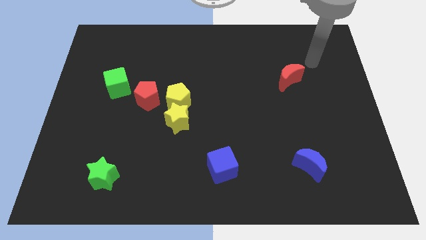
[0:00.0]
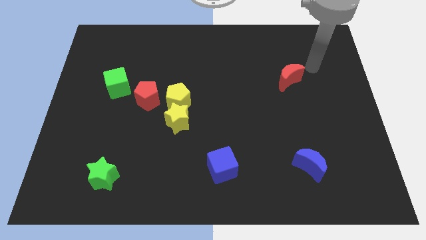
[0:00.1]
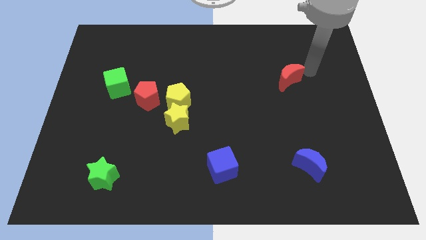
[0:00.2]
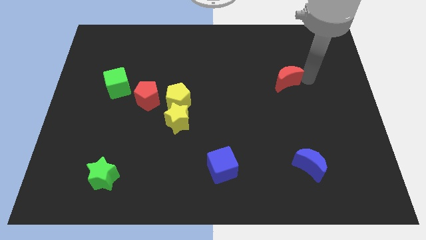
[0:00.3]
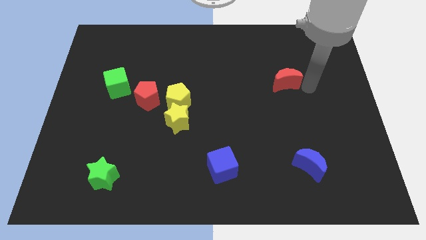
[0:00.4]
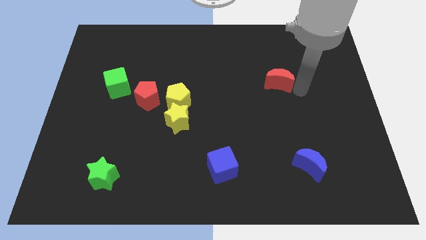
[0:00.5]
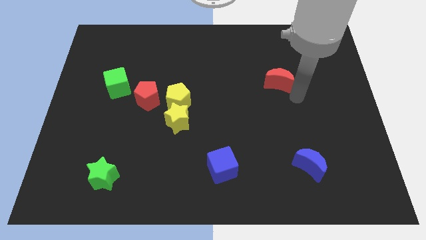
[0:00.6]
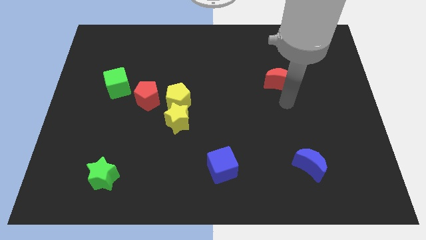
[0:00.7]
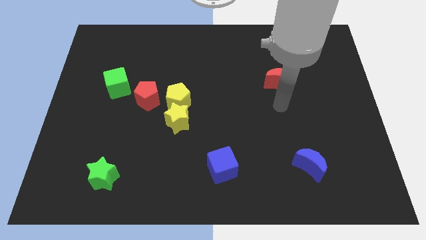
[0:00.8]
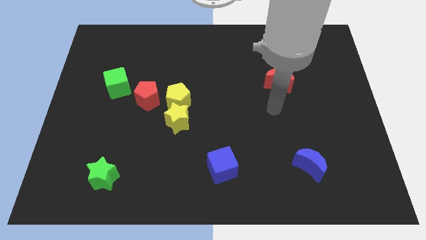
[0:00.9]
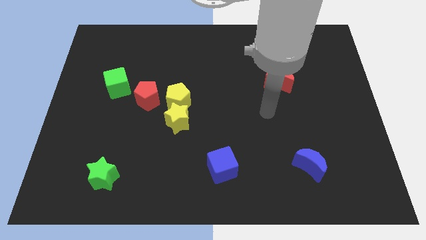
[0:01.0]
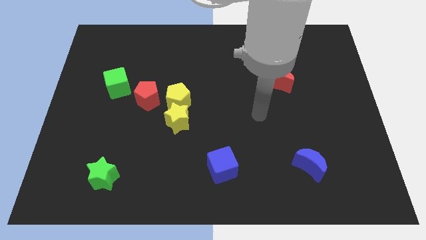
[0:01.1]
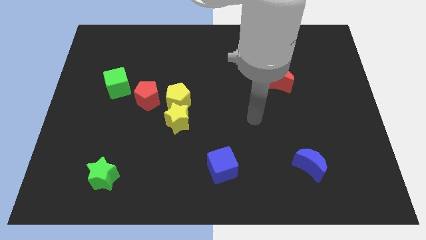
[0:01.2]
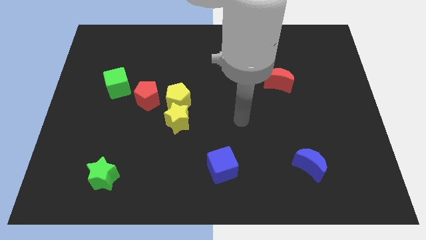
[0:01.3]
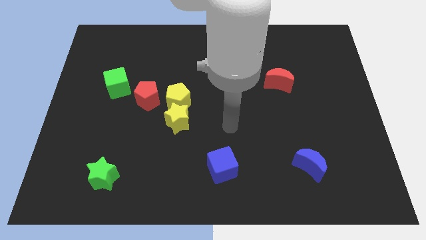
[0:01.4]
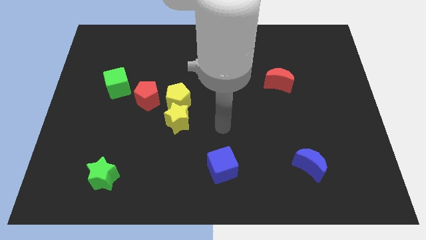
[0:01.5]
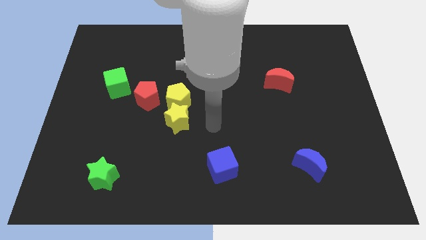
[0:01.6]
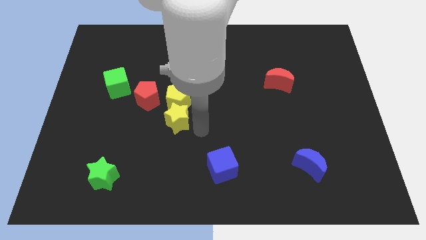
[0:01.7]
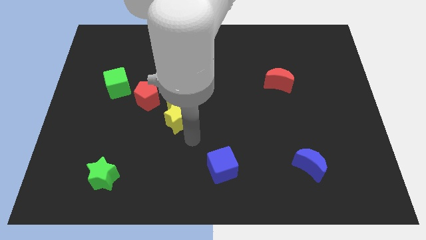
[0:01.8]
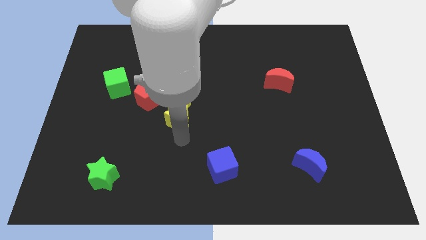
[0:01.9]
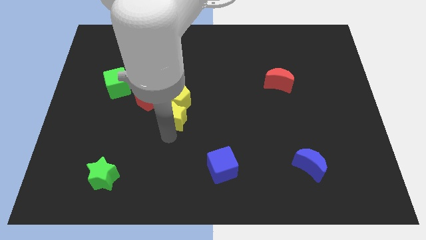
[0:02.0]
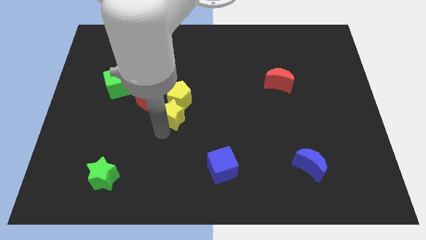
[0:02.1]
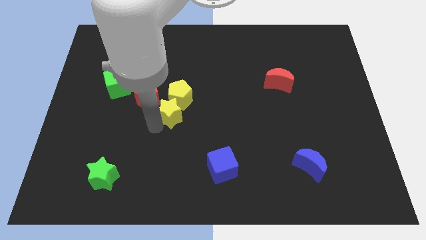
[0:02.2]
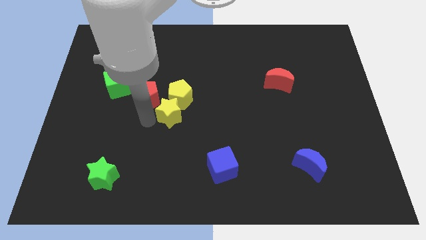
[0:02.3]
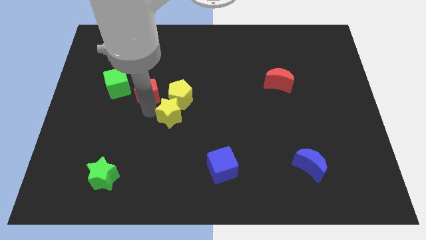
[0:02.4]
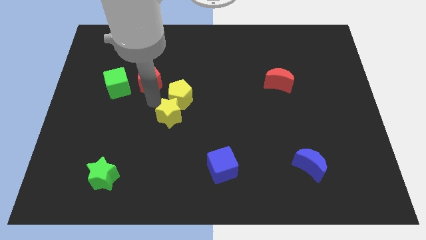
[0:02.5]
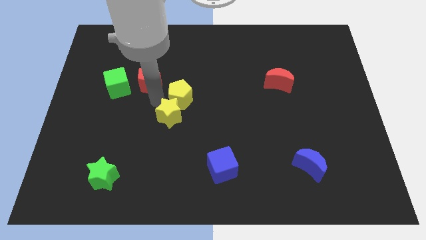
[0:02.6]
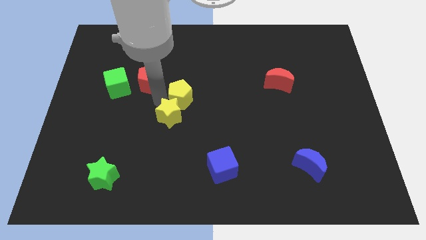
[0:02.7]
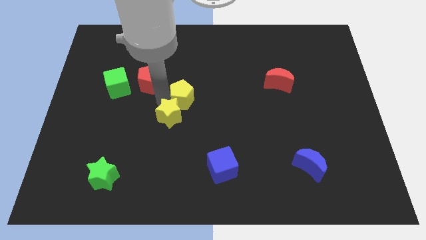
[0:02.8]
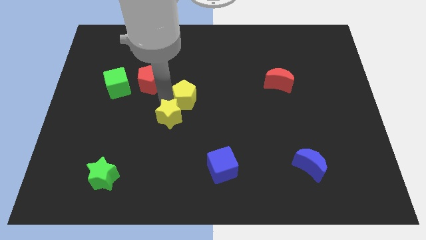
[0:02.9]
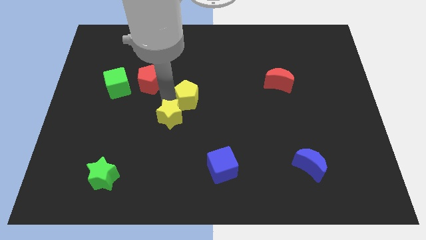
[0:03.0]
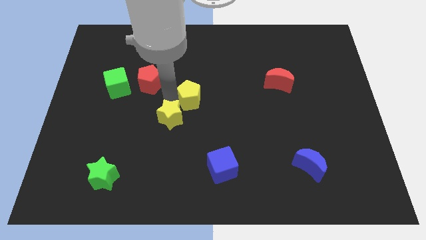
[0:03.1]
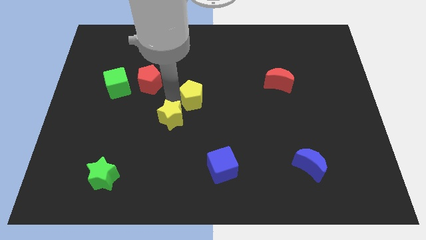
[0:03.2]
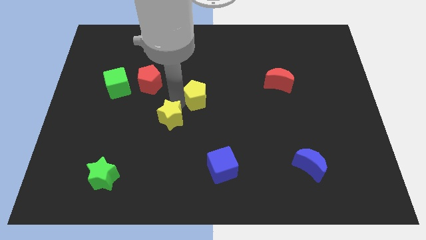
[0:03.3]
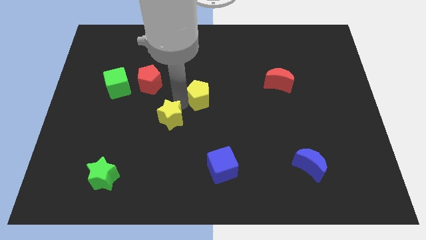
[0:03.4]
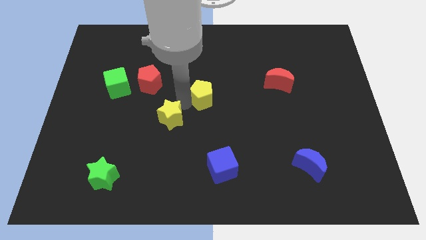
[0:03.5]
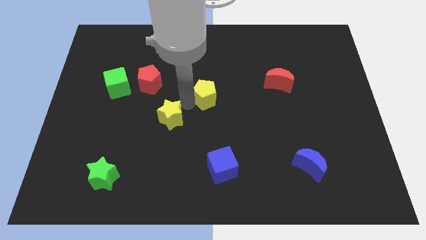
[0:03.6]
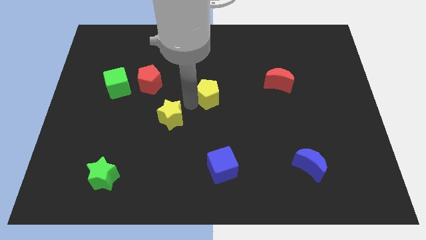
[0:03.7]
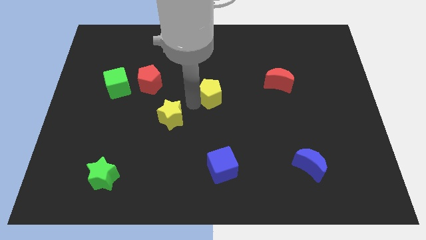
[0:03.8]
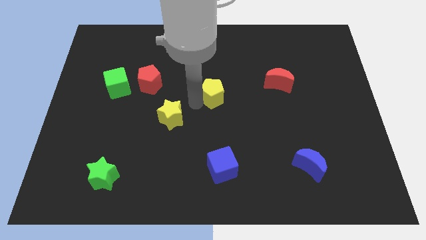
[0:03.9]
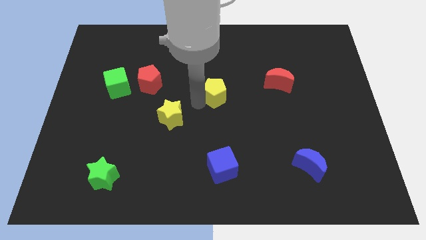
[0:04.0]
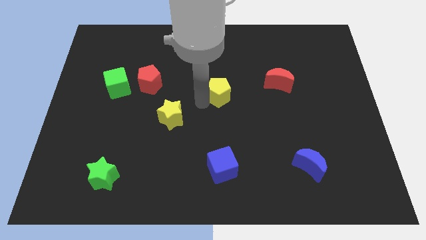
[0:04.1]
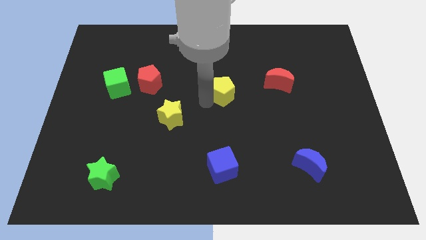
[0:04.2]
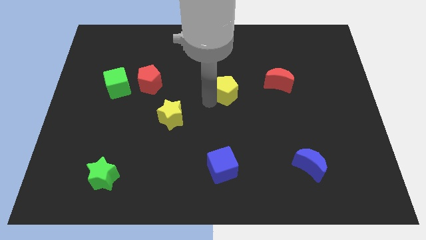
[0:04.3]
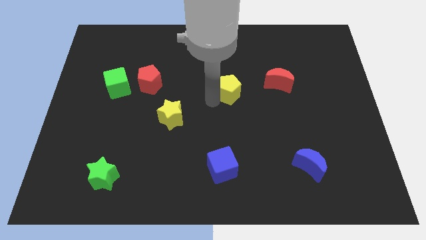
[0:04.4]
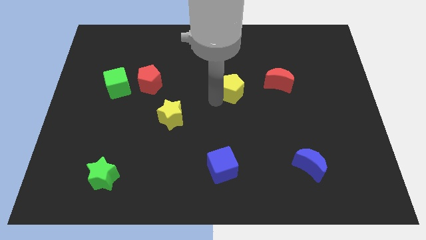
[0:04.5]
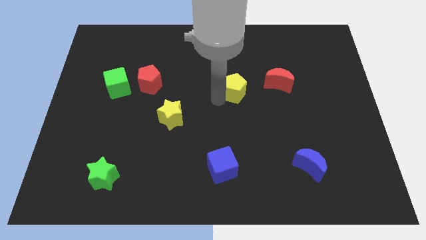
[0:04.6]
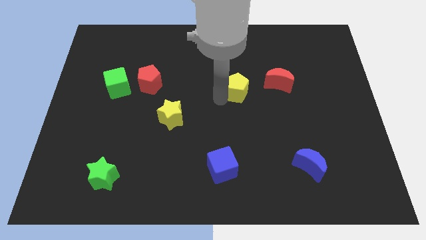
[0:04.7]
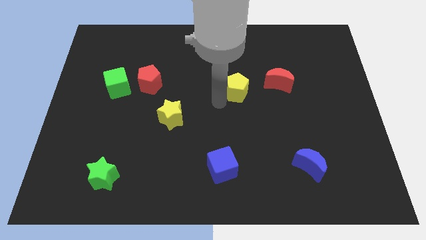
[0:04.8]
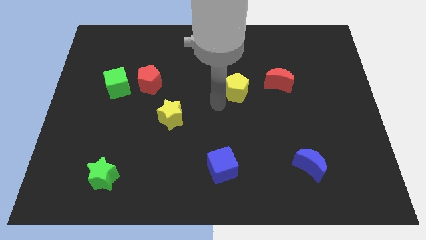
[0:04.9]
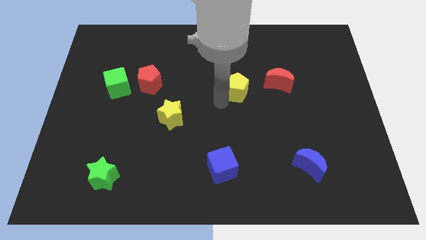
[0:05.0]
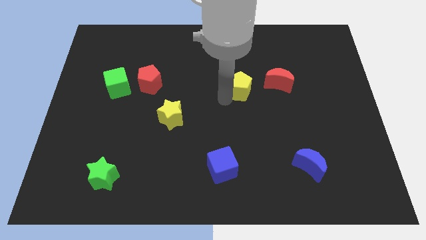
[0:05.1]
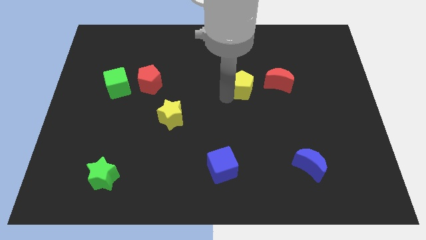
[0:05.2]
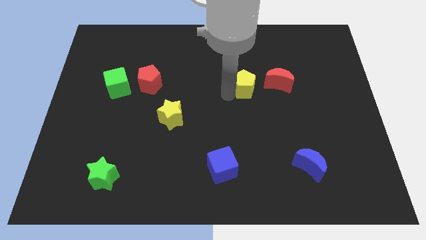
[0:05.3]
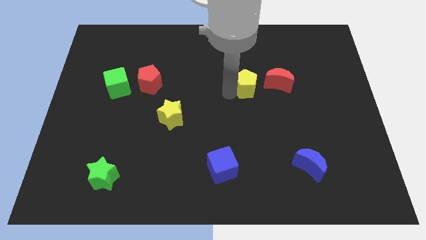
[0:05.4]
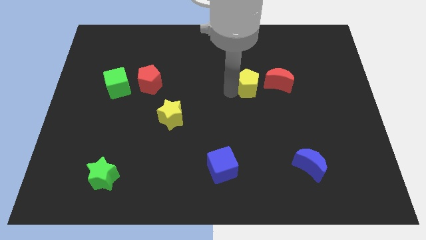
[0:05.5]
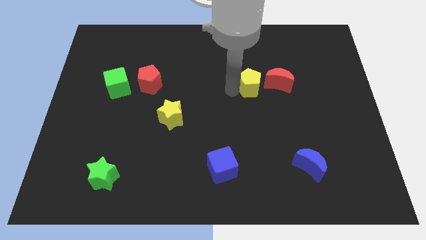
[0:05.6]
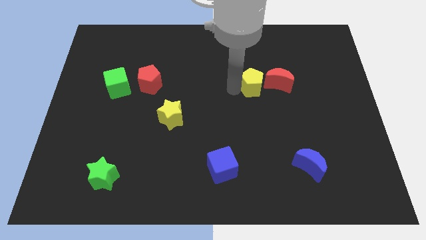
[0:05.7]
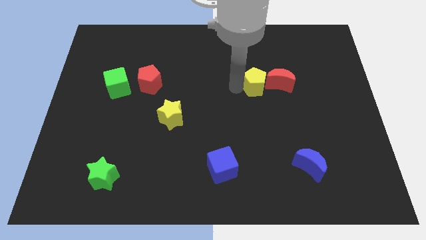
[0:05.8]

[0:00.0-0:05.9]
put the yellow pentagon towards the red moon

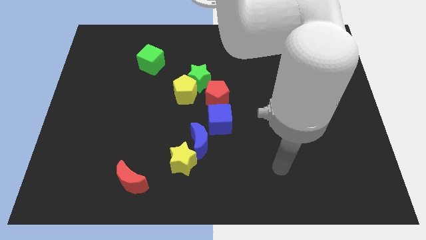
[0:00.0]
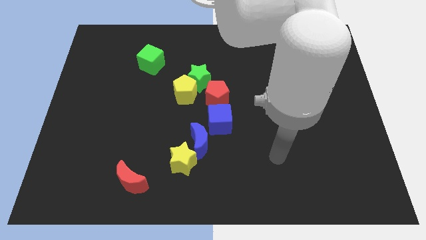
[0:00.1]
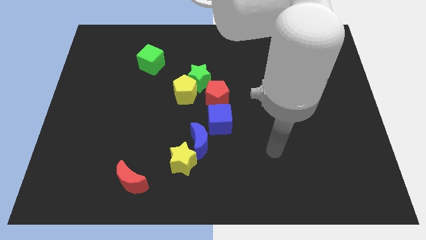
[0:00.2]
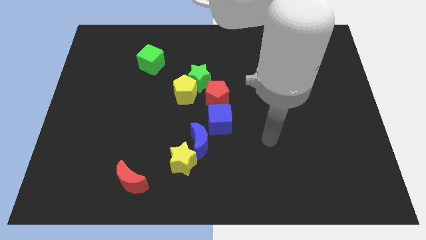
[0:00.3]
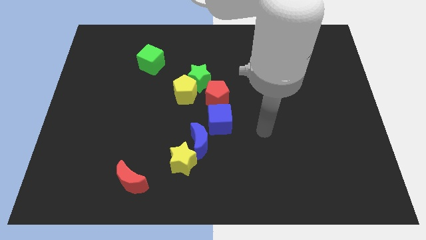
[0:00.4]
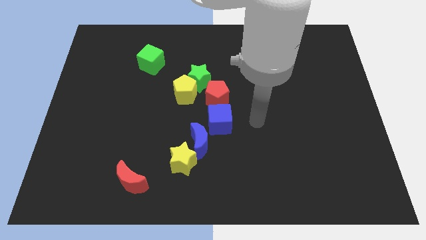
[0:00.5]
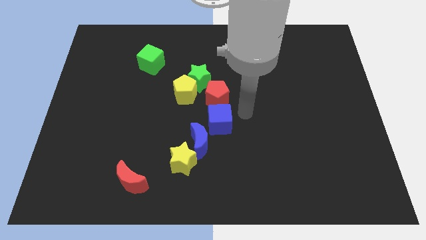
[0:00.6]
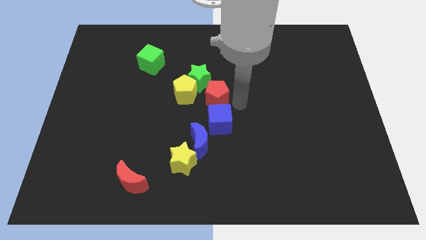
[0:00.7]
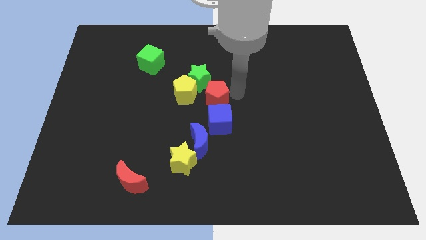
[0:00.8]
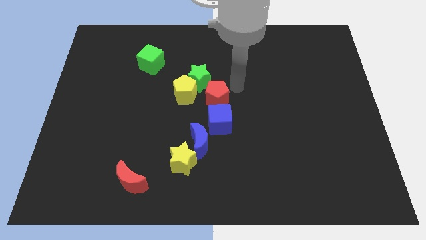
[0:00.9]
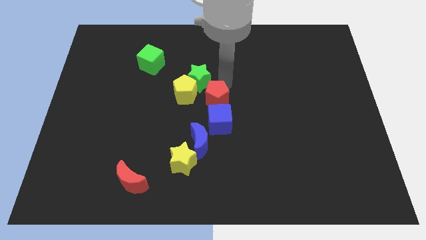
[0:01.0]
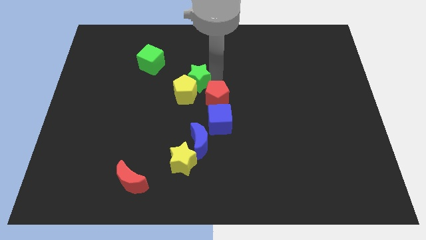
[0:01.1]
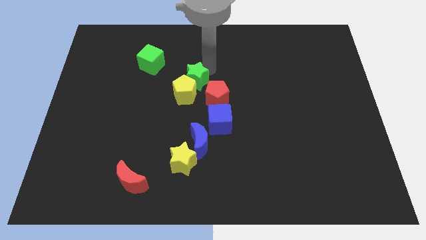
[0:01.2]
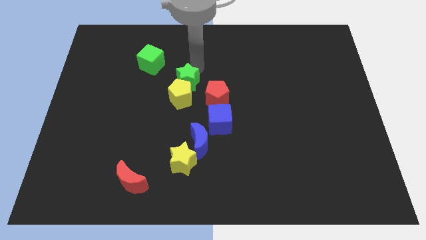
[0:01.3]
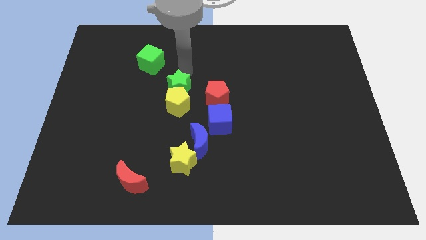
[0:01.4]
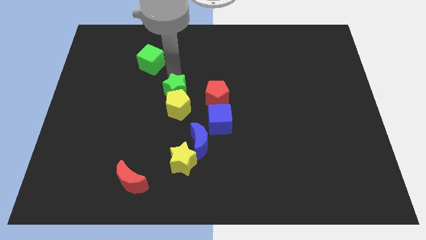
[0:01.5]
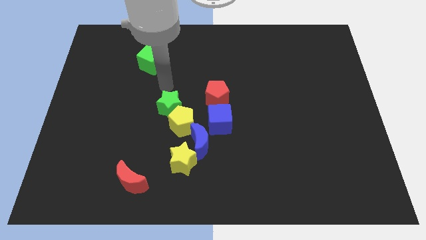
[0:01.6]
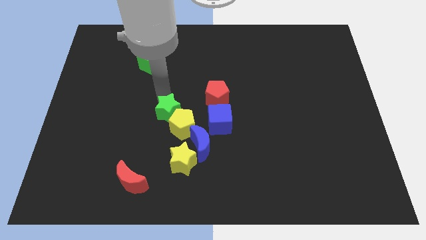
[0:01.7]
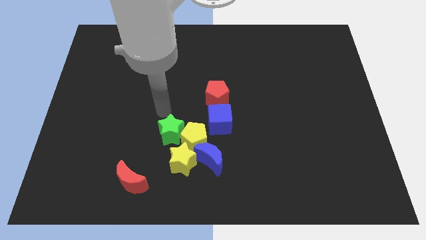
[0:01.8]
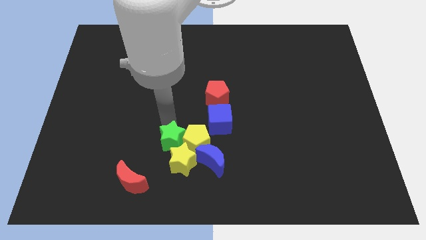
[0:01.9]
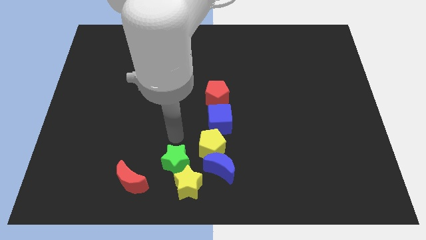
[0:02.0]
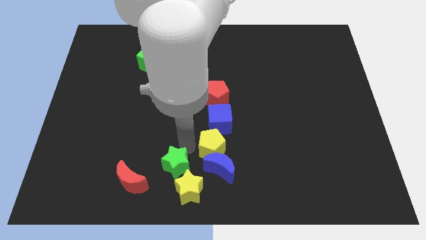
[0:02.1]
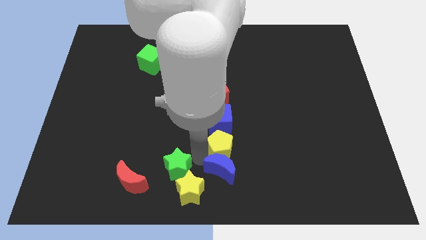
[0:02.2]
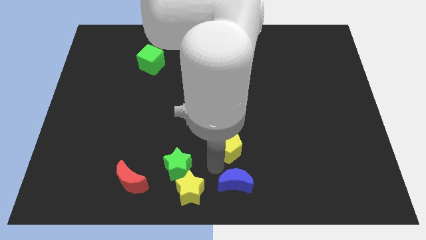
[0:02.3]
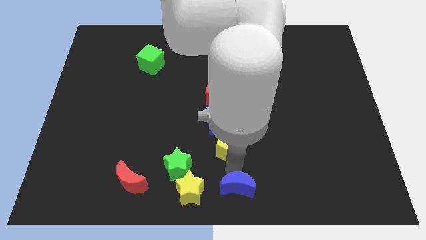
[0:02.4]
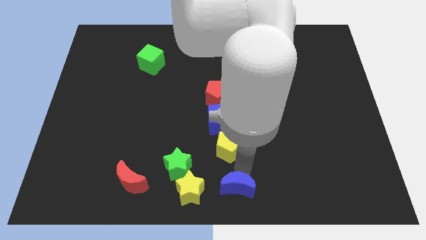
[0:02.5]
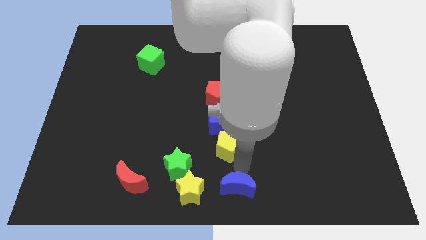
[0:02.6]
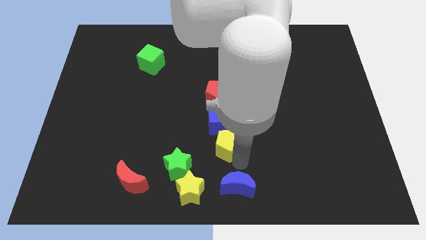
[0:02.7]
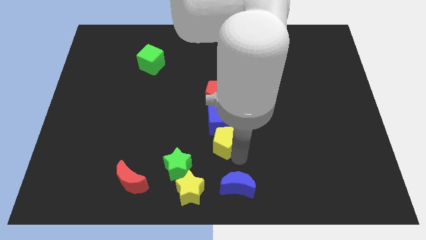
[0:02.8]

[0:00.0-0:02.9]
put the yellow pentagon towards the blue cube
